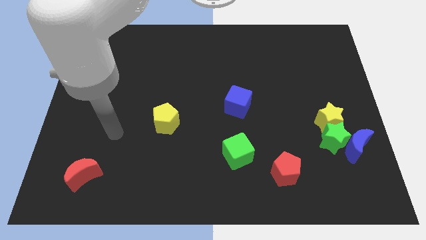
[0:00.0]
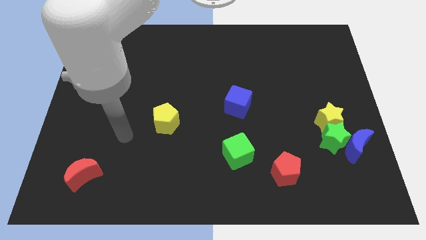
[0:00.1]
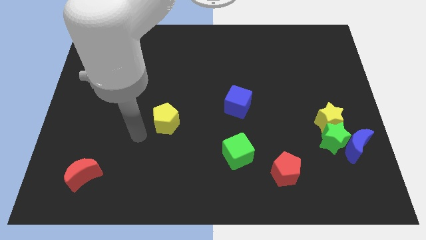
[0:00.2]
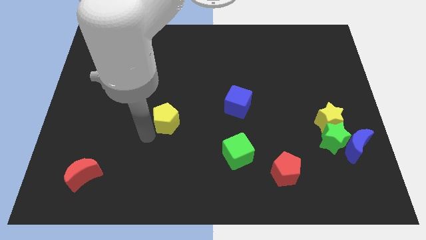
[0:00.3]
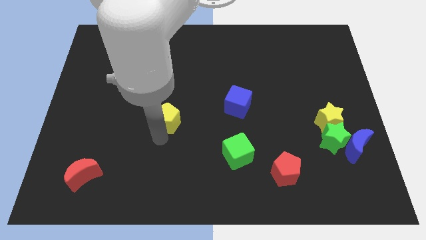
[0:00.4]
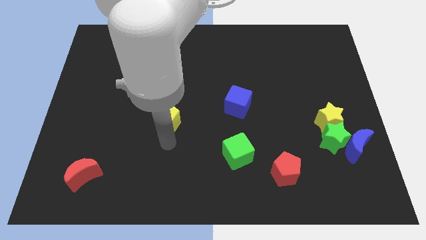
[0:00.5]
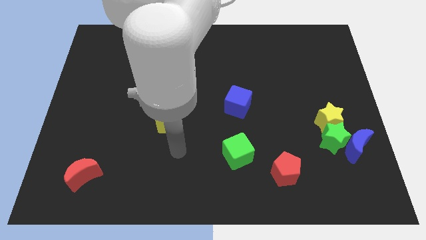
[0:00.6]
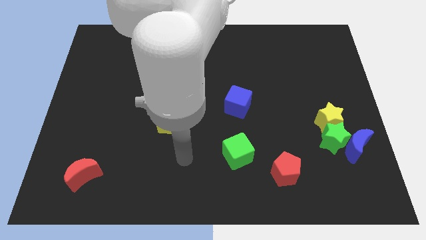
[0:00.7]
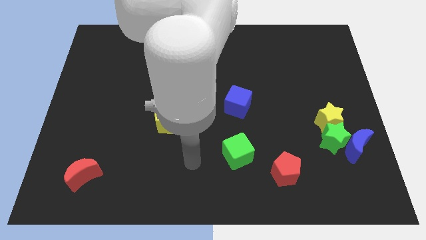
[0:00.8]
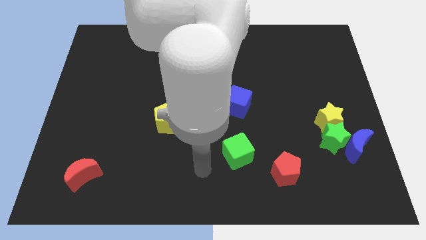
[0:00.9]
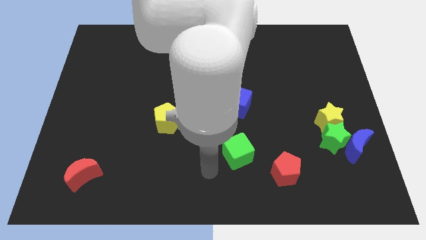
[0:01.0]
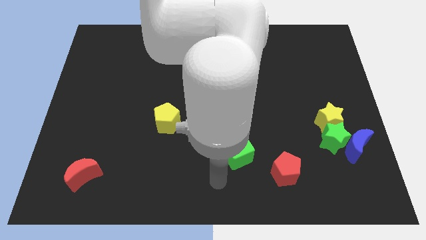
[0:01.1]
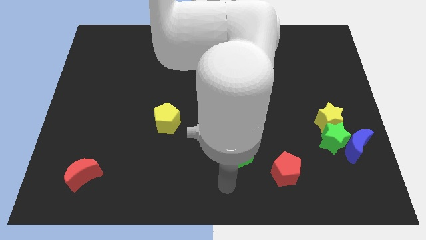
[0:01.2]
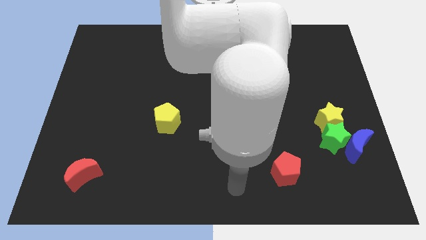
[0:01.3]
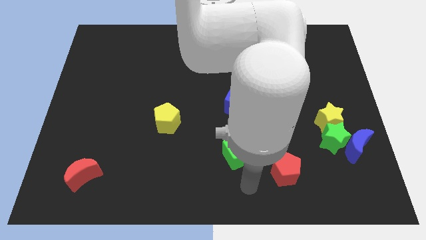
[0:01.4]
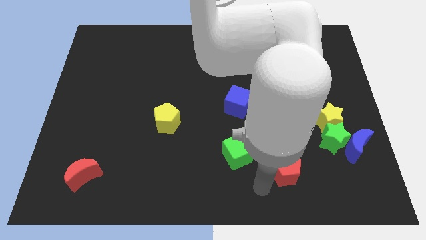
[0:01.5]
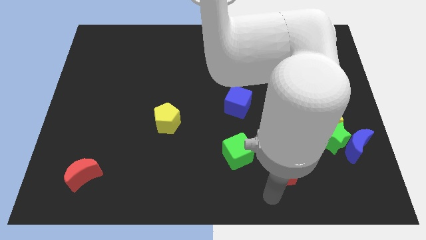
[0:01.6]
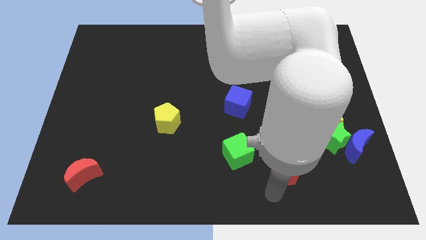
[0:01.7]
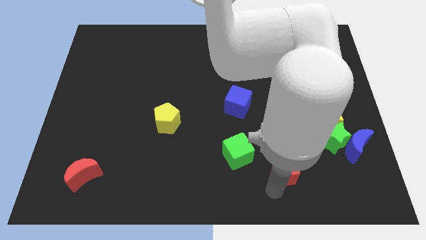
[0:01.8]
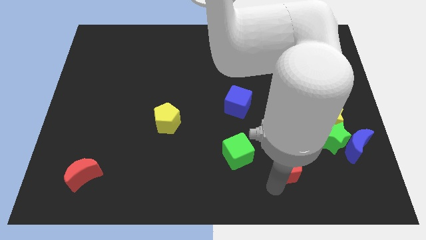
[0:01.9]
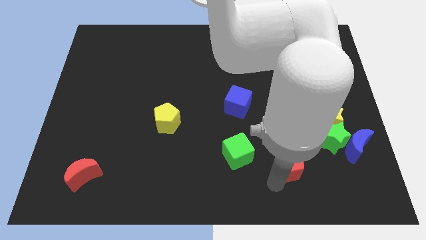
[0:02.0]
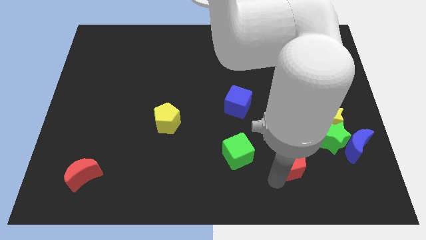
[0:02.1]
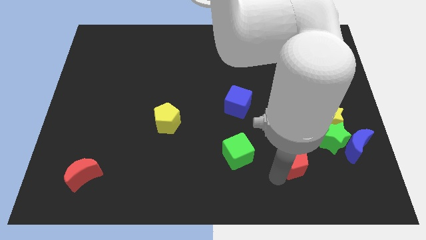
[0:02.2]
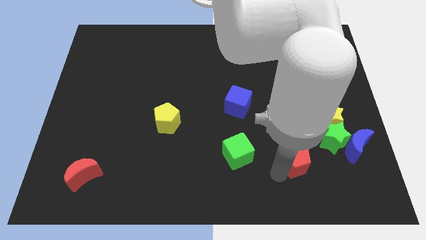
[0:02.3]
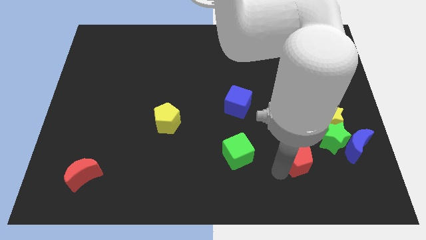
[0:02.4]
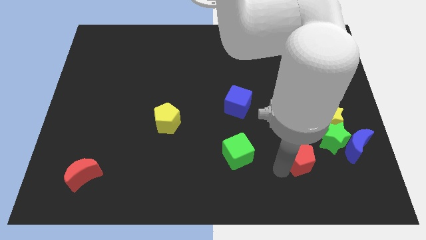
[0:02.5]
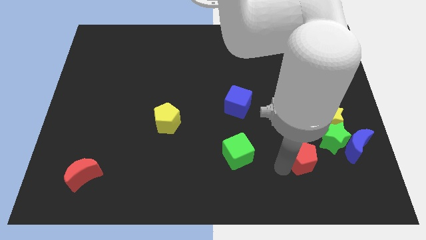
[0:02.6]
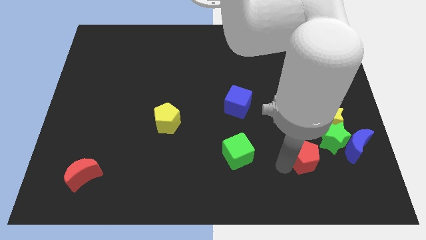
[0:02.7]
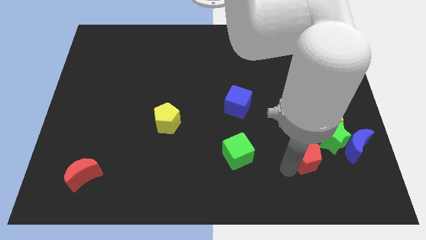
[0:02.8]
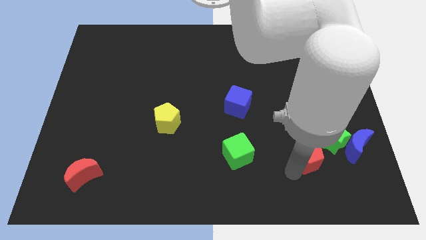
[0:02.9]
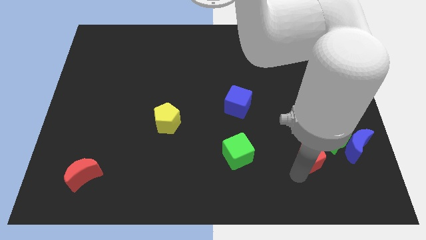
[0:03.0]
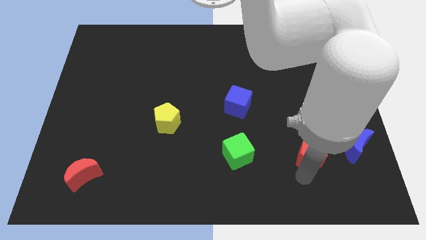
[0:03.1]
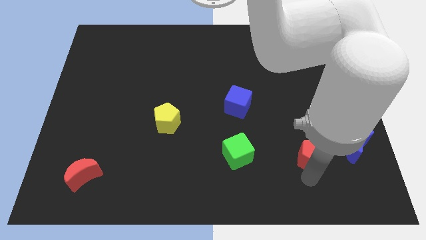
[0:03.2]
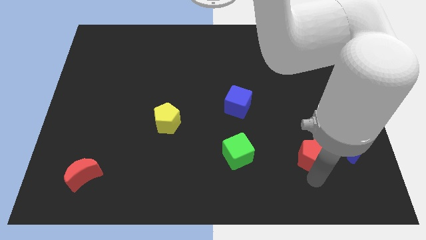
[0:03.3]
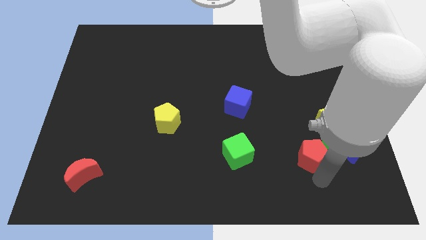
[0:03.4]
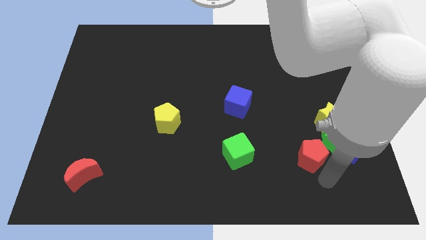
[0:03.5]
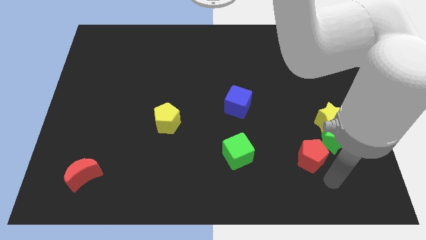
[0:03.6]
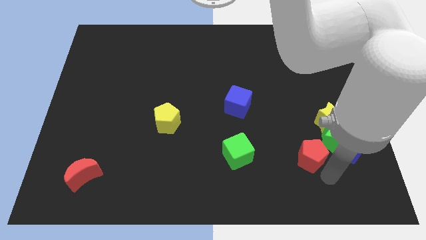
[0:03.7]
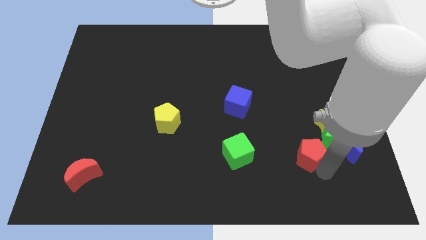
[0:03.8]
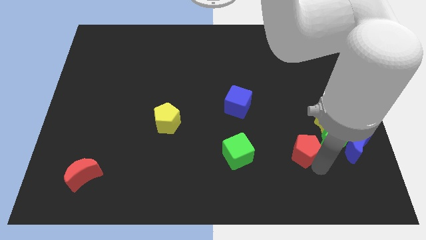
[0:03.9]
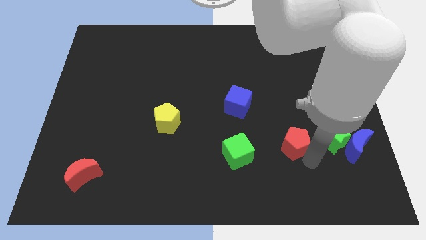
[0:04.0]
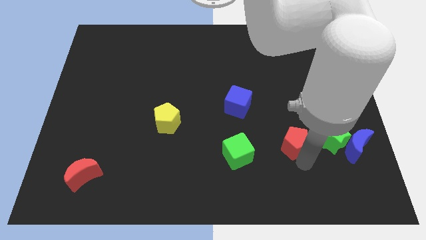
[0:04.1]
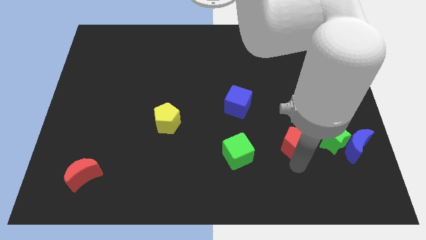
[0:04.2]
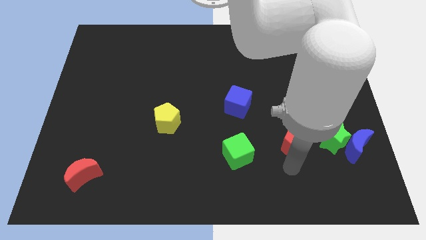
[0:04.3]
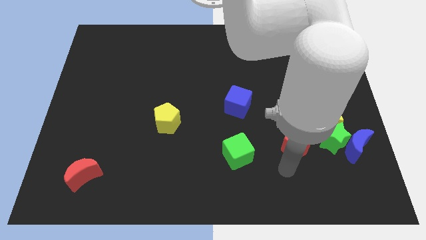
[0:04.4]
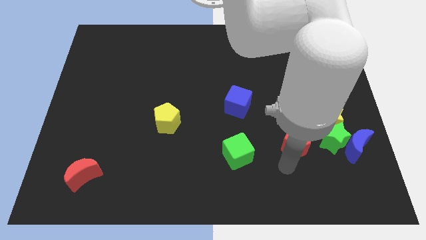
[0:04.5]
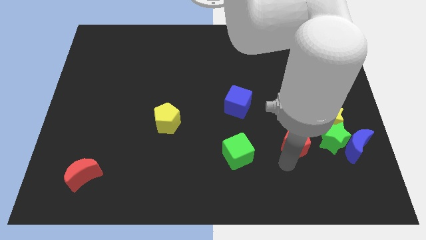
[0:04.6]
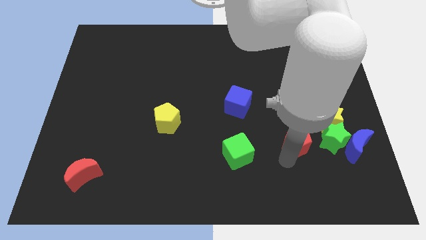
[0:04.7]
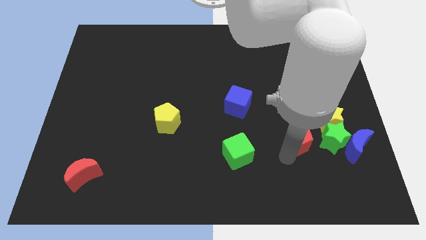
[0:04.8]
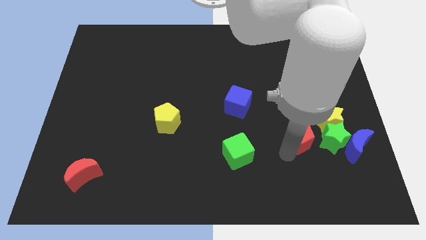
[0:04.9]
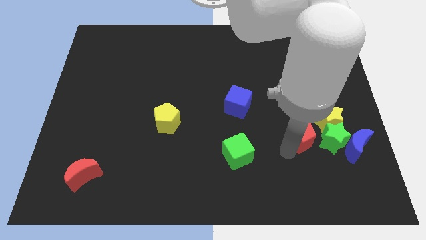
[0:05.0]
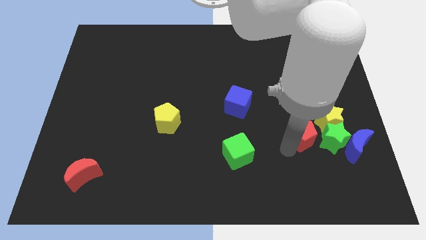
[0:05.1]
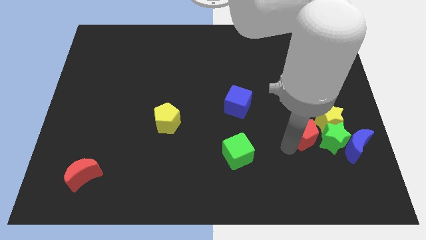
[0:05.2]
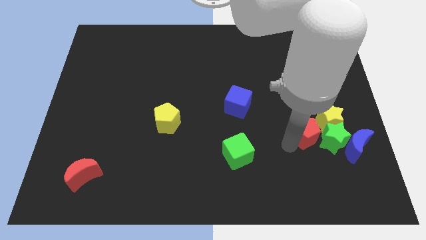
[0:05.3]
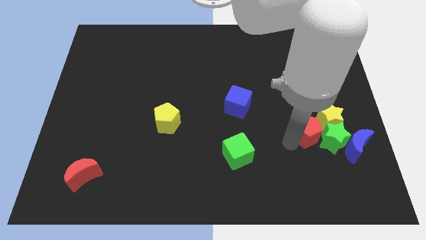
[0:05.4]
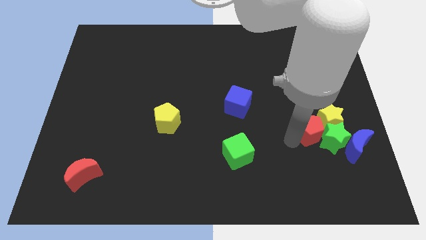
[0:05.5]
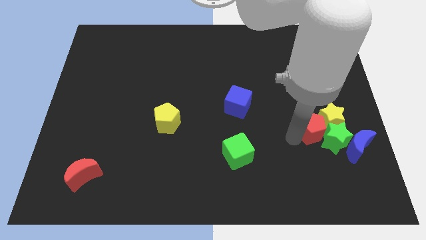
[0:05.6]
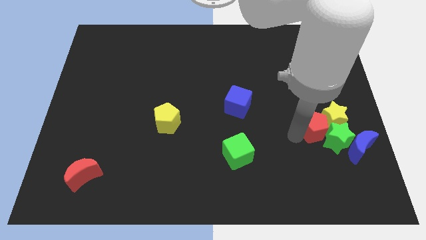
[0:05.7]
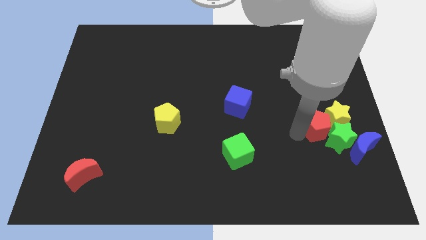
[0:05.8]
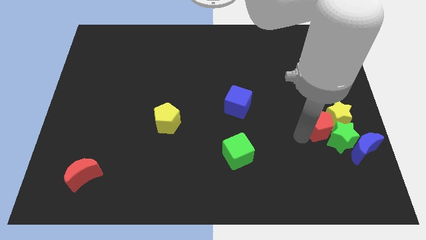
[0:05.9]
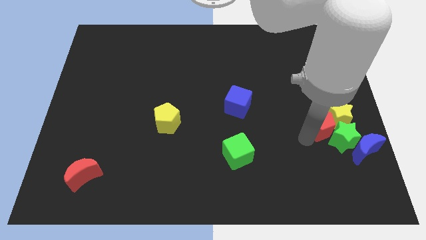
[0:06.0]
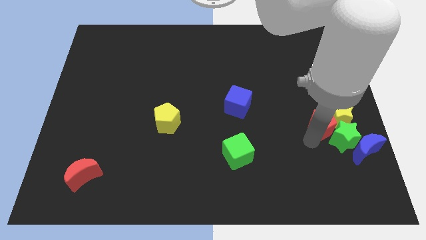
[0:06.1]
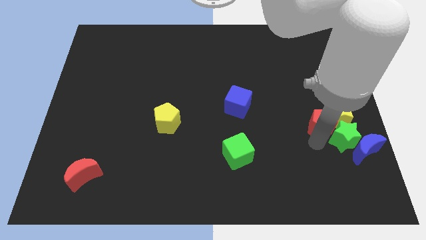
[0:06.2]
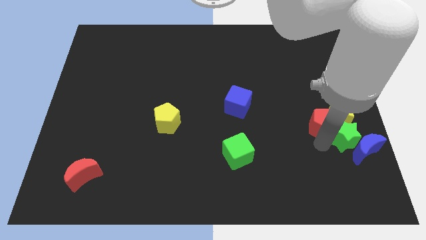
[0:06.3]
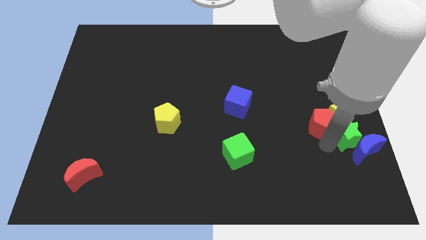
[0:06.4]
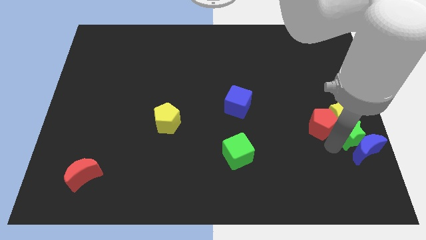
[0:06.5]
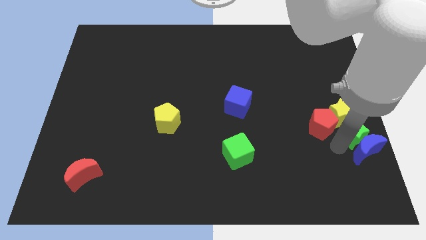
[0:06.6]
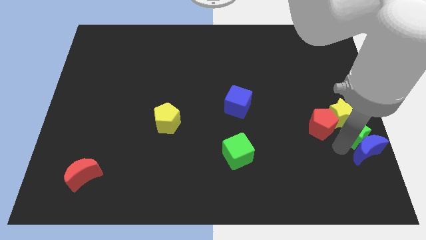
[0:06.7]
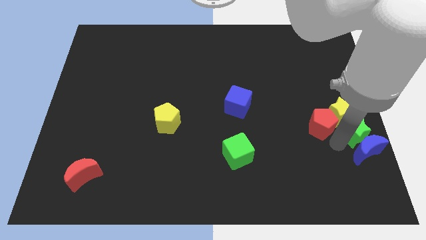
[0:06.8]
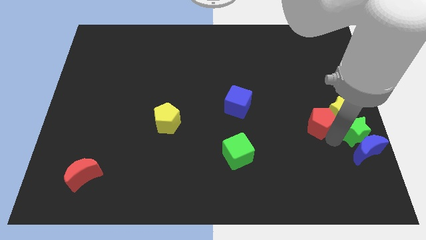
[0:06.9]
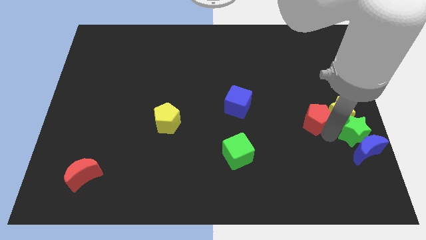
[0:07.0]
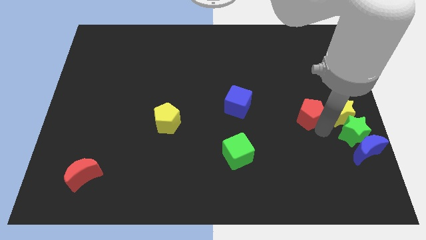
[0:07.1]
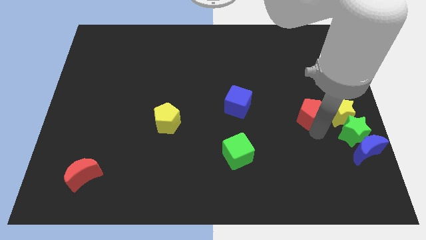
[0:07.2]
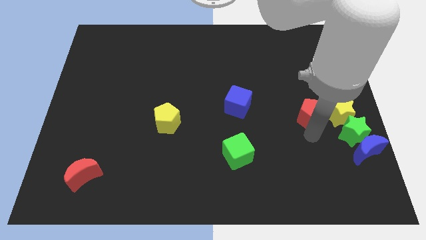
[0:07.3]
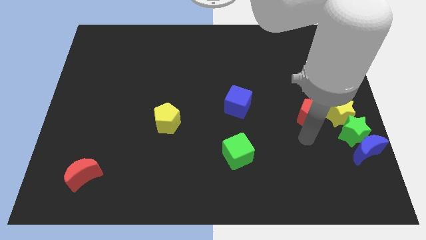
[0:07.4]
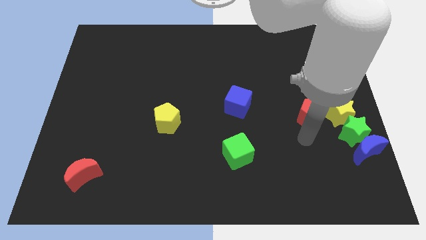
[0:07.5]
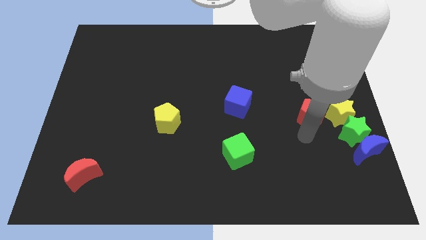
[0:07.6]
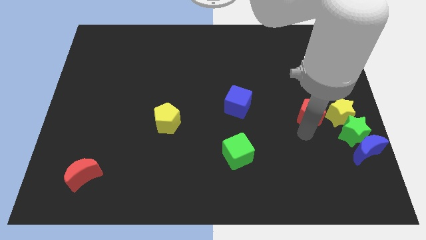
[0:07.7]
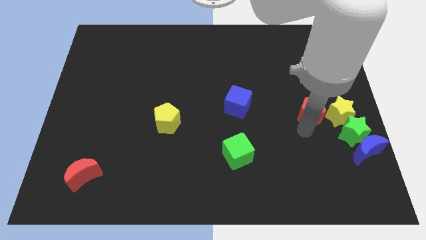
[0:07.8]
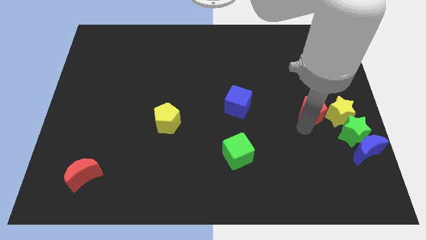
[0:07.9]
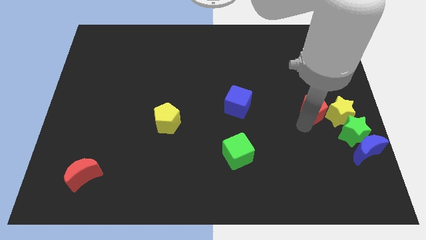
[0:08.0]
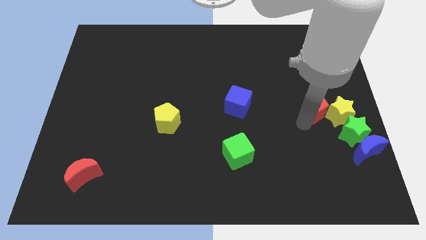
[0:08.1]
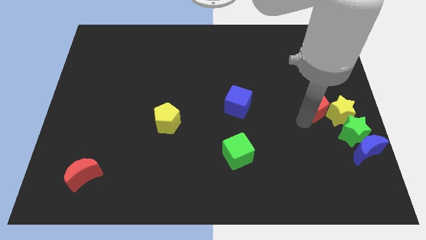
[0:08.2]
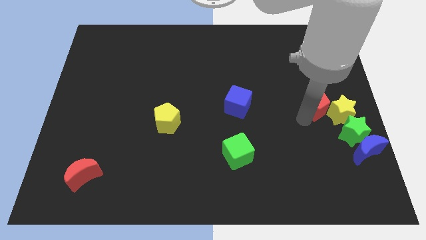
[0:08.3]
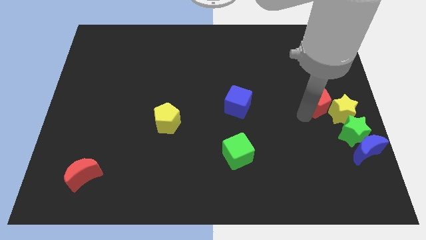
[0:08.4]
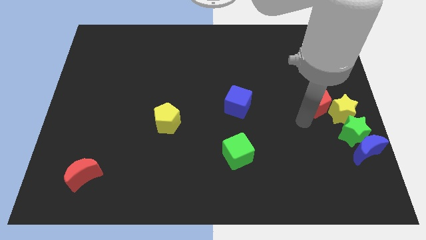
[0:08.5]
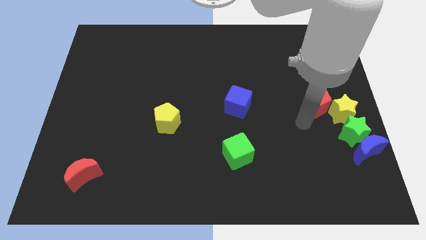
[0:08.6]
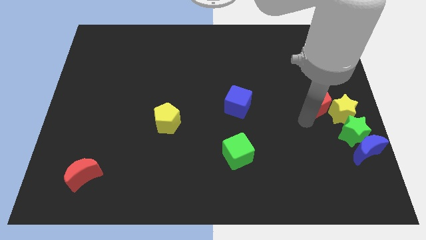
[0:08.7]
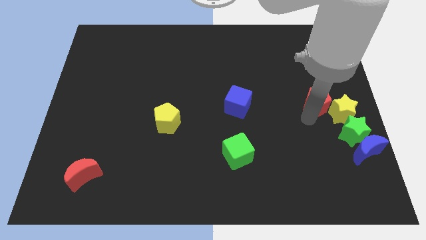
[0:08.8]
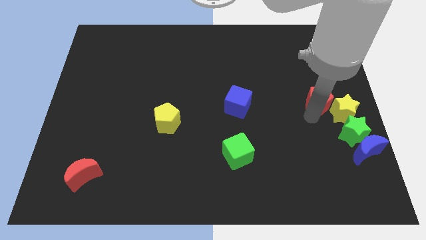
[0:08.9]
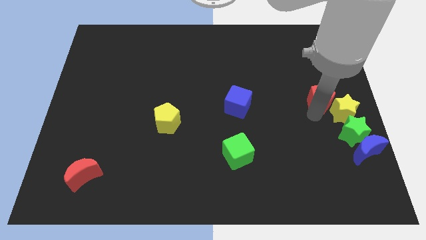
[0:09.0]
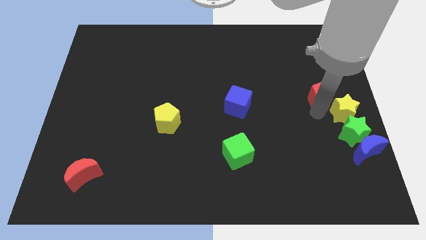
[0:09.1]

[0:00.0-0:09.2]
push the red pentagon to the top side of the yellow star
